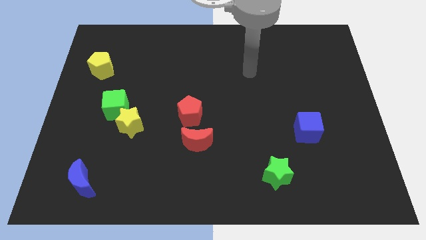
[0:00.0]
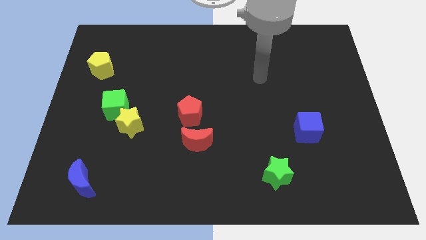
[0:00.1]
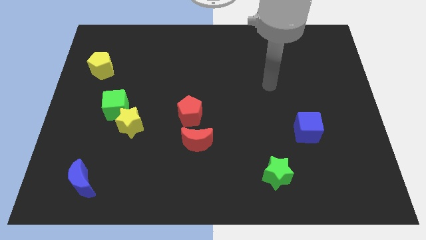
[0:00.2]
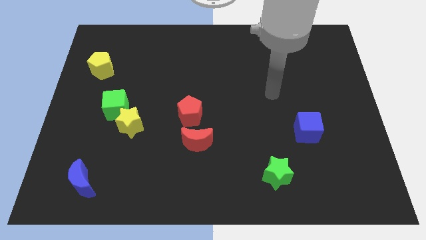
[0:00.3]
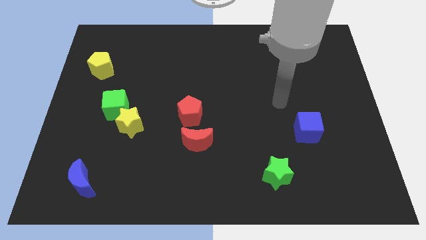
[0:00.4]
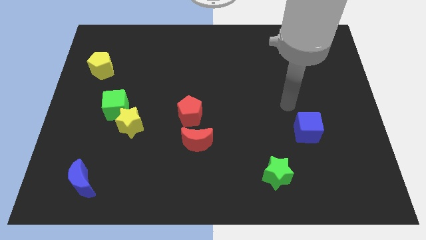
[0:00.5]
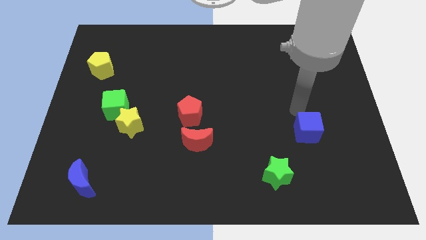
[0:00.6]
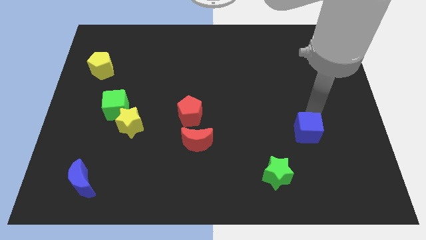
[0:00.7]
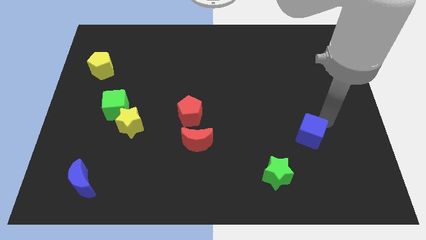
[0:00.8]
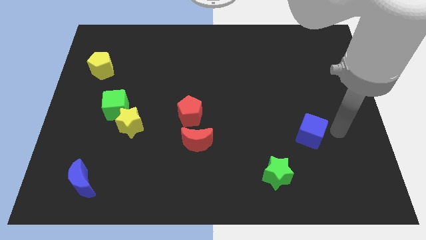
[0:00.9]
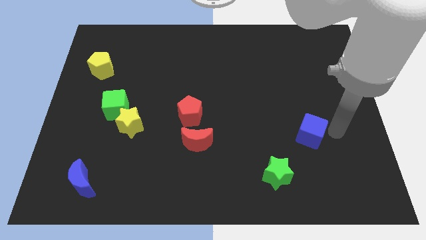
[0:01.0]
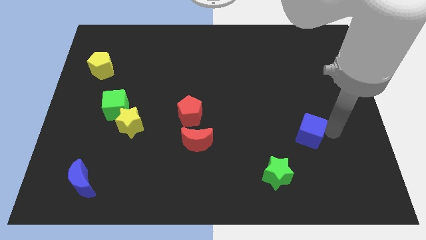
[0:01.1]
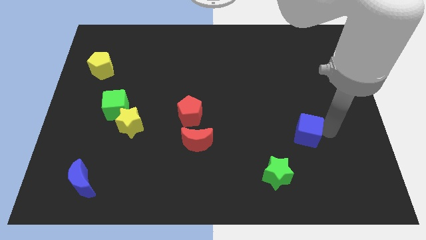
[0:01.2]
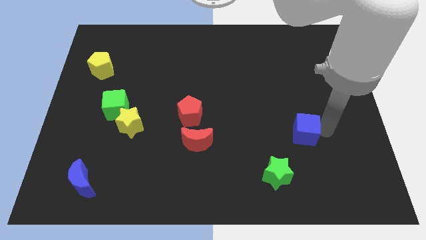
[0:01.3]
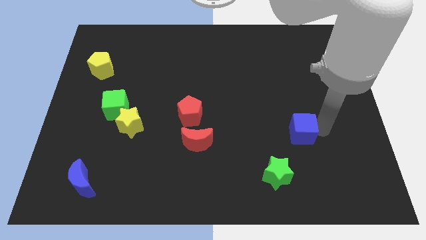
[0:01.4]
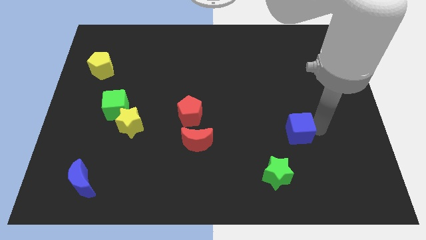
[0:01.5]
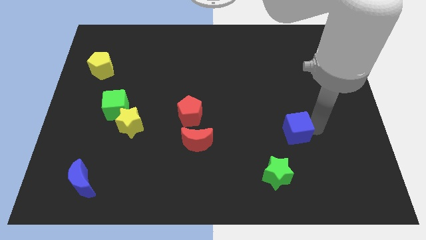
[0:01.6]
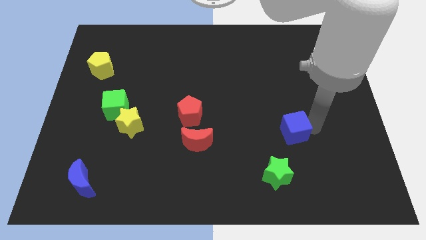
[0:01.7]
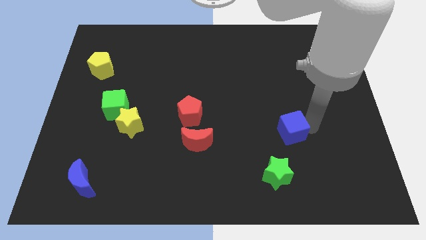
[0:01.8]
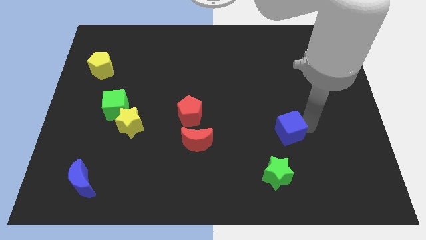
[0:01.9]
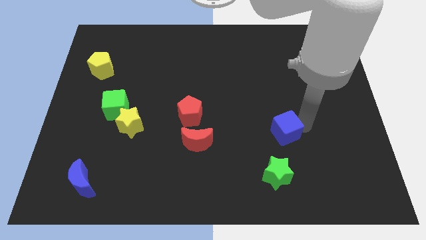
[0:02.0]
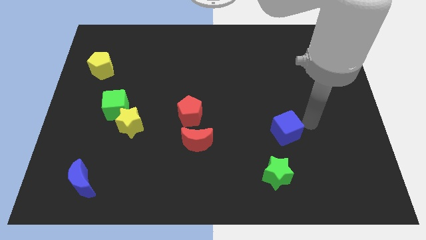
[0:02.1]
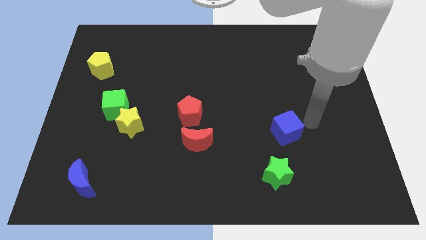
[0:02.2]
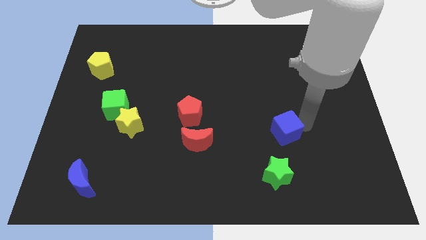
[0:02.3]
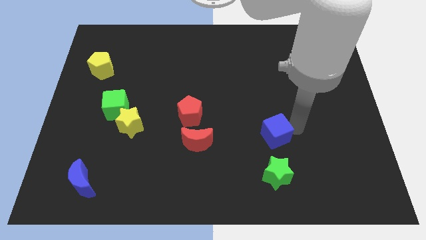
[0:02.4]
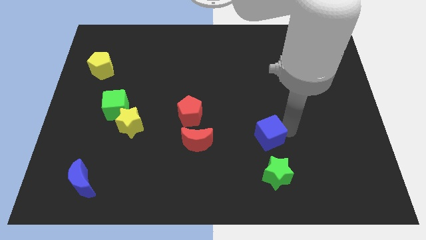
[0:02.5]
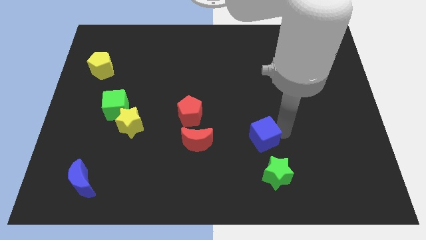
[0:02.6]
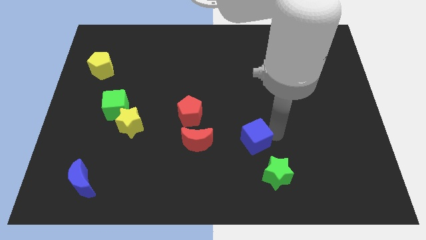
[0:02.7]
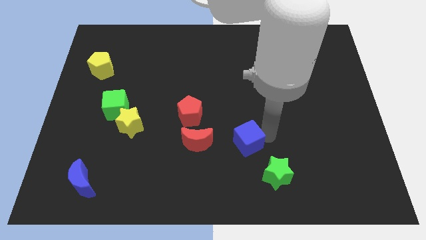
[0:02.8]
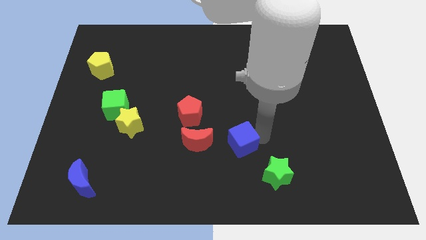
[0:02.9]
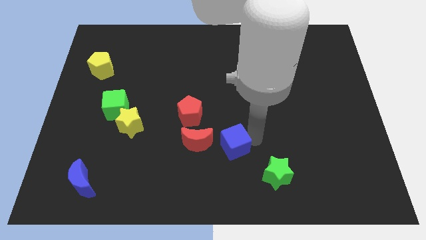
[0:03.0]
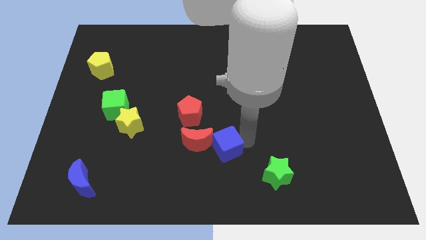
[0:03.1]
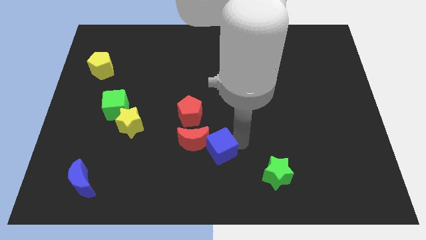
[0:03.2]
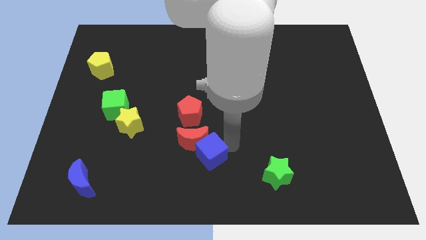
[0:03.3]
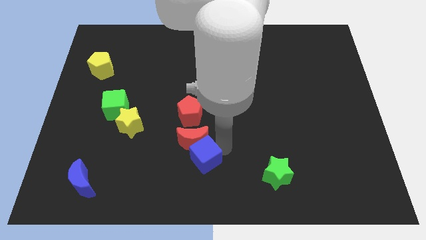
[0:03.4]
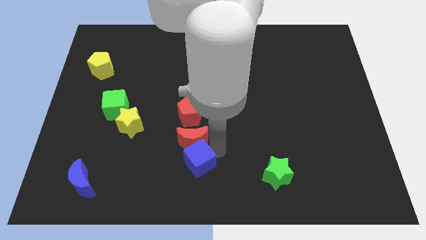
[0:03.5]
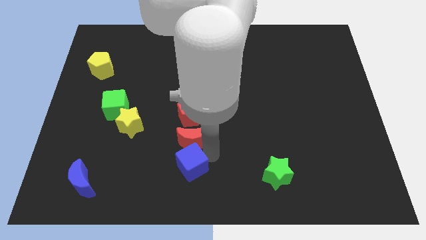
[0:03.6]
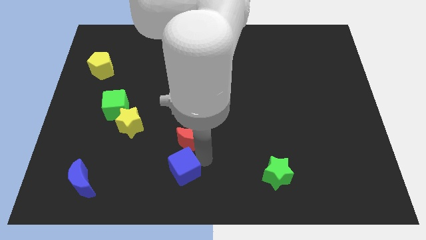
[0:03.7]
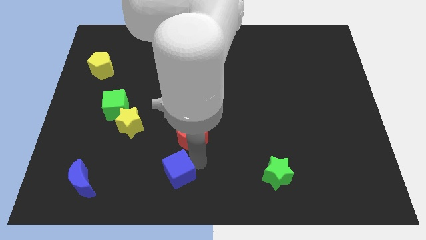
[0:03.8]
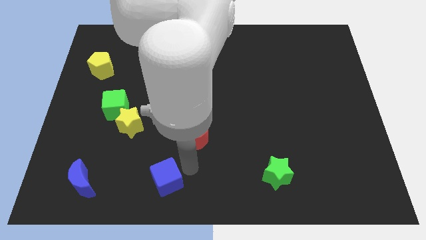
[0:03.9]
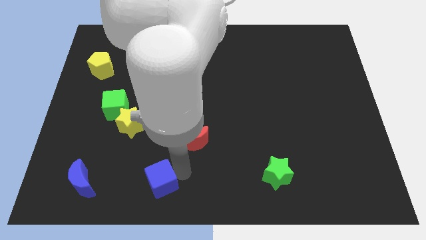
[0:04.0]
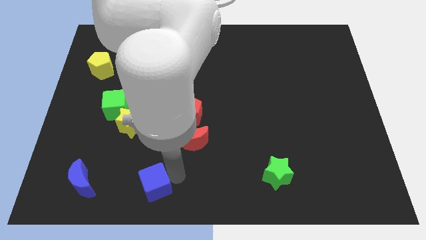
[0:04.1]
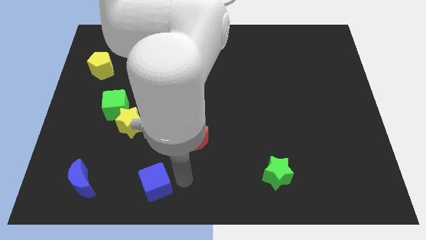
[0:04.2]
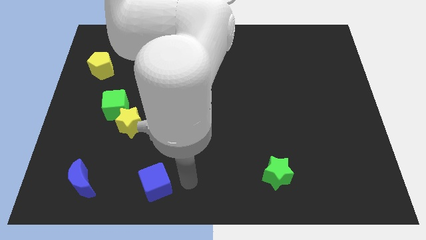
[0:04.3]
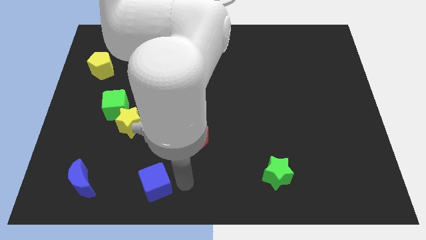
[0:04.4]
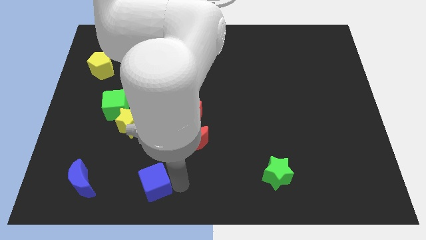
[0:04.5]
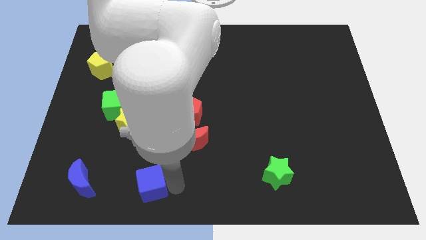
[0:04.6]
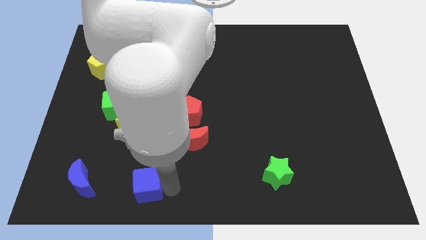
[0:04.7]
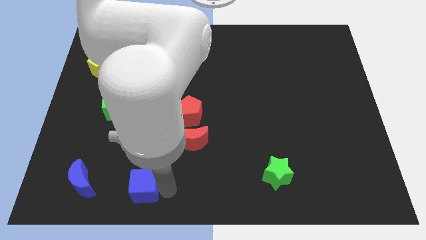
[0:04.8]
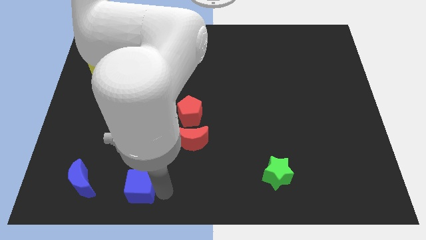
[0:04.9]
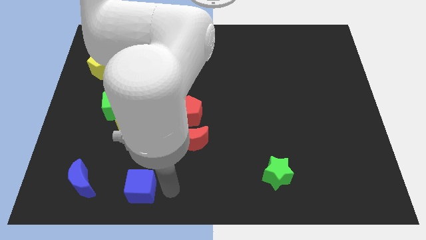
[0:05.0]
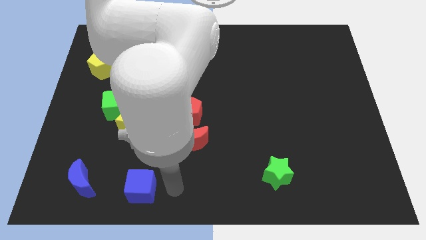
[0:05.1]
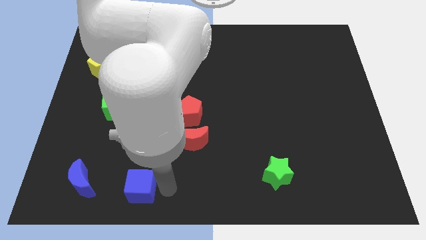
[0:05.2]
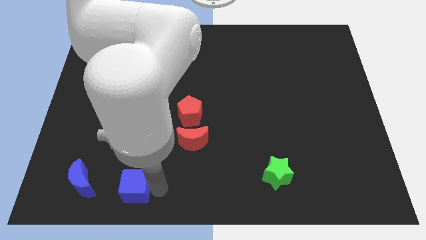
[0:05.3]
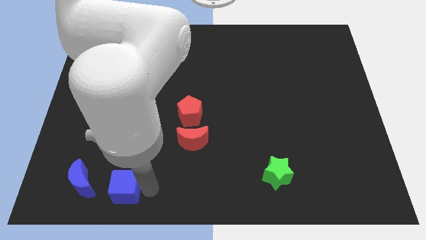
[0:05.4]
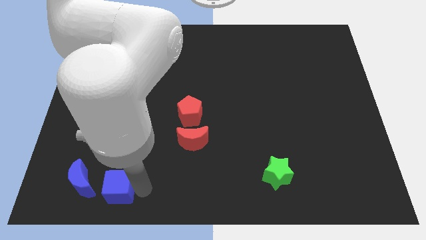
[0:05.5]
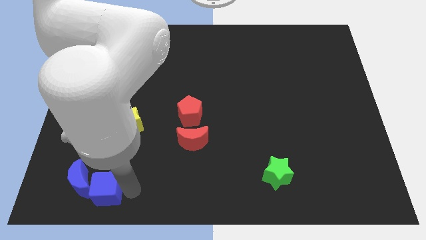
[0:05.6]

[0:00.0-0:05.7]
move the blue cube to the blue moon

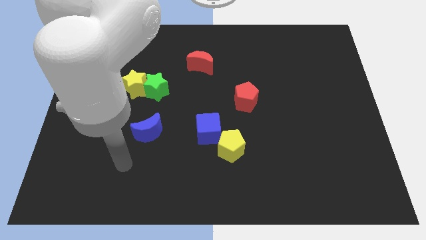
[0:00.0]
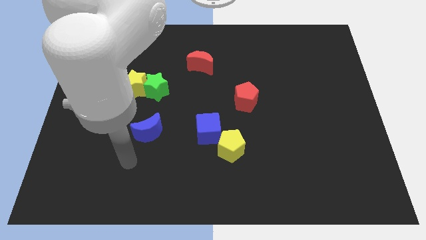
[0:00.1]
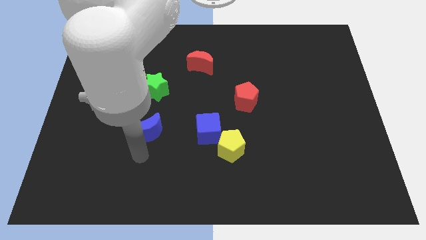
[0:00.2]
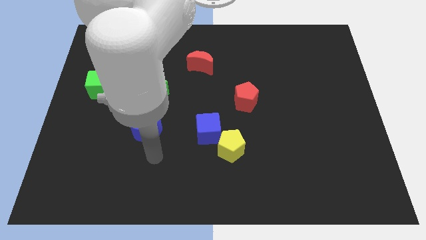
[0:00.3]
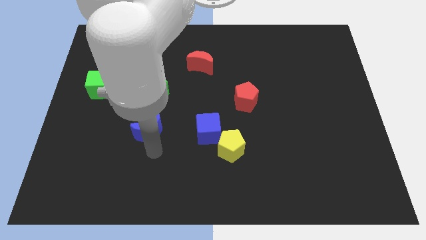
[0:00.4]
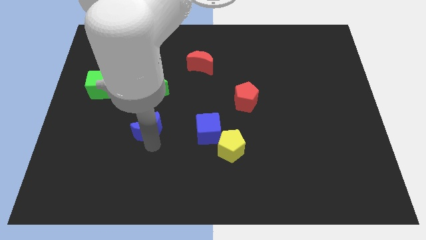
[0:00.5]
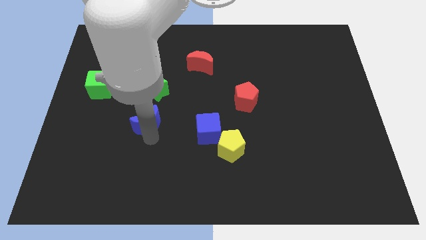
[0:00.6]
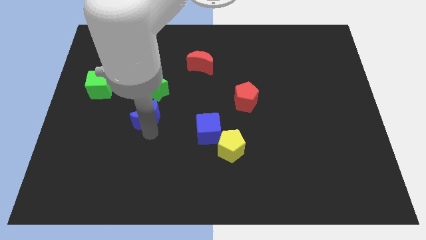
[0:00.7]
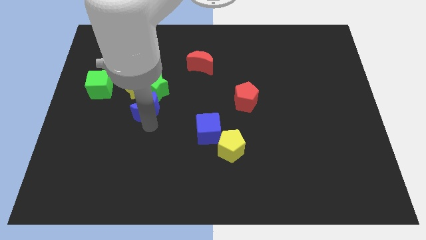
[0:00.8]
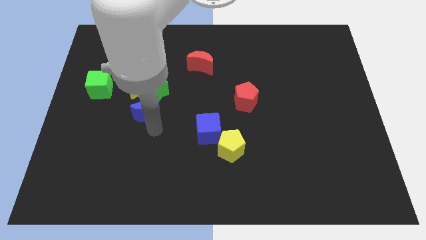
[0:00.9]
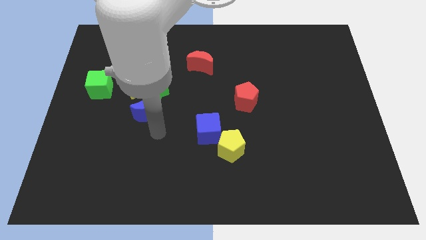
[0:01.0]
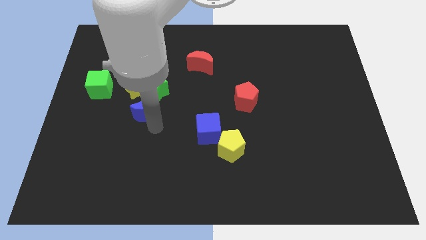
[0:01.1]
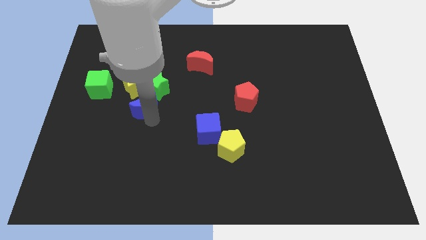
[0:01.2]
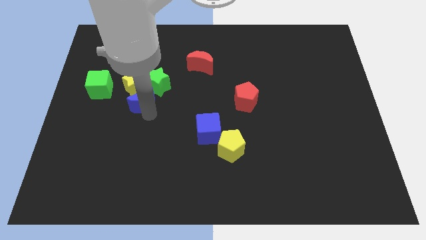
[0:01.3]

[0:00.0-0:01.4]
move the blue moon towards the yellow star
